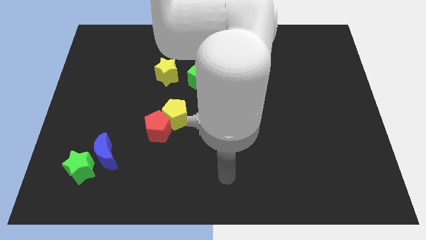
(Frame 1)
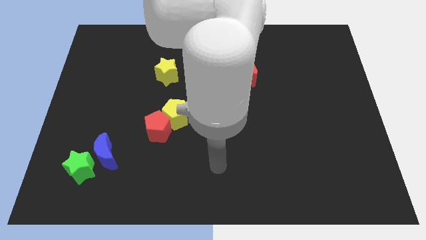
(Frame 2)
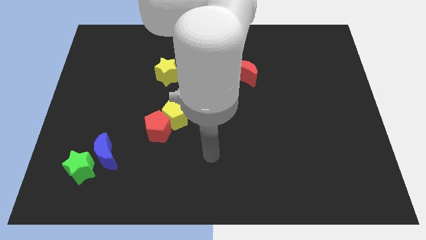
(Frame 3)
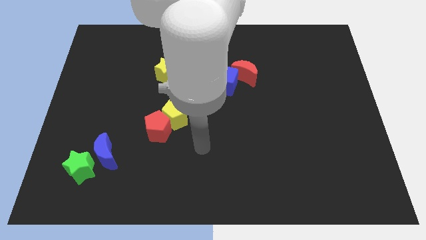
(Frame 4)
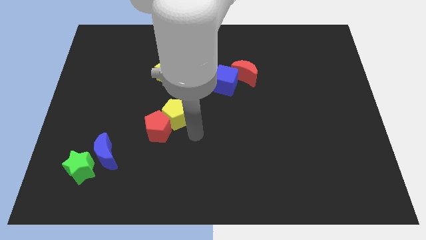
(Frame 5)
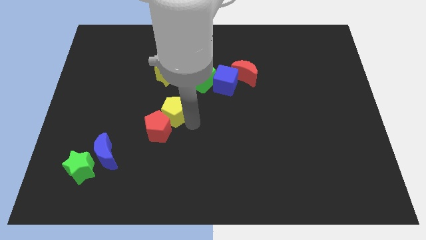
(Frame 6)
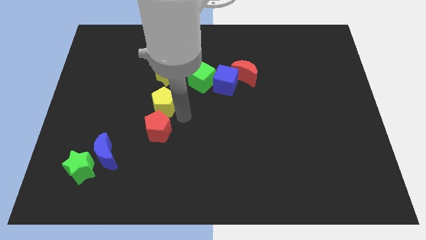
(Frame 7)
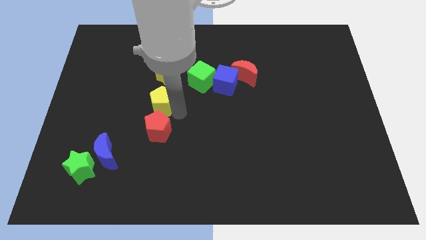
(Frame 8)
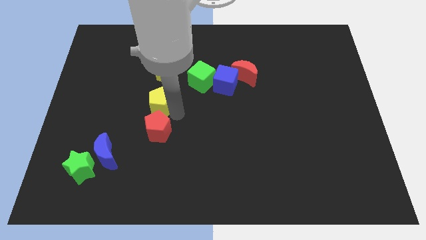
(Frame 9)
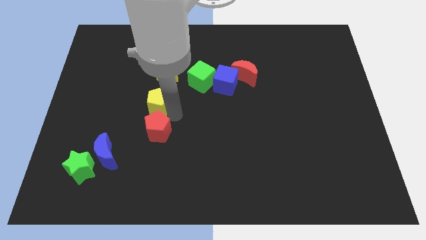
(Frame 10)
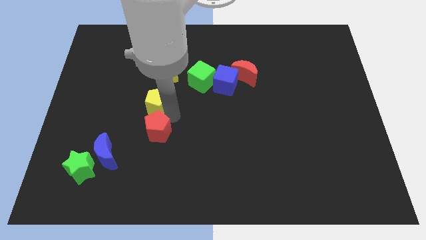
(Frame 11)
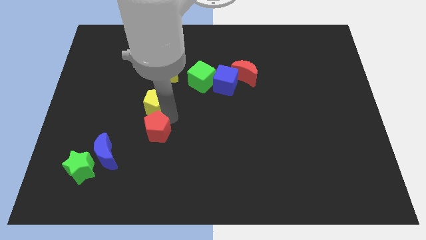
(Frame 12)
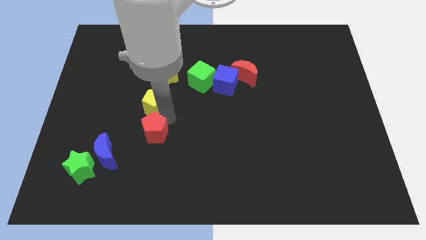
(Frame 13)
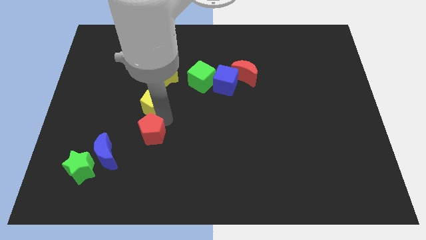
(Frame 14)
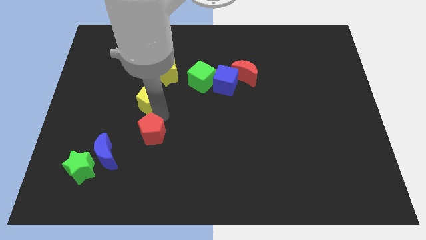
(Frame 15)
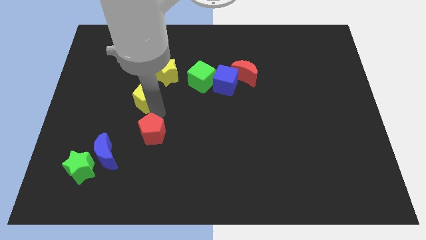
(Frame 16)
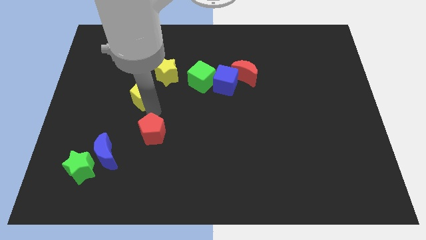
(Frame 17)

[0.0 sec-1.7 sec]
separate the red pentagon from the yellow pentagon

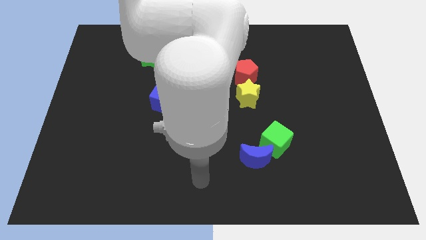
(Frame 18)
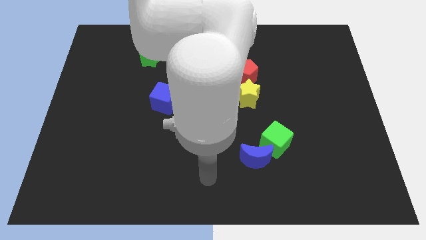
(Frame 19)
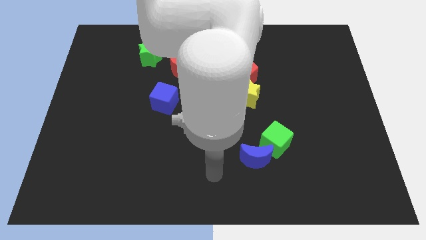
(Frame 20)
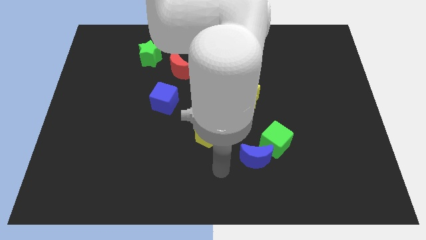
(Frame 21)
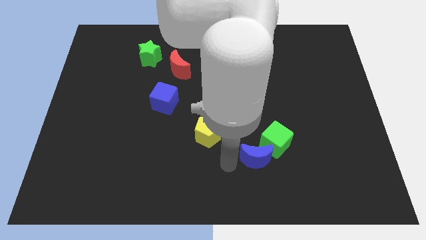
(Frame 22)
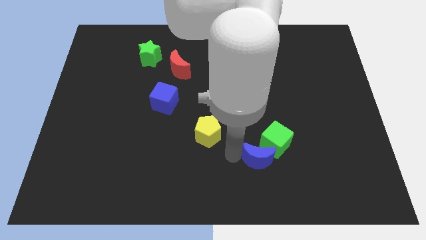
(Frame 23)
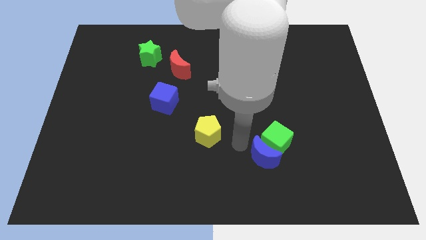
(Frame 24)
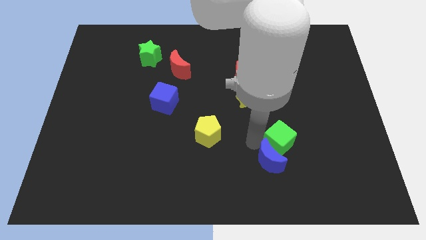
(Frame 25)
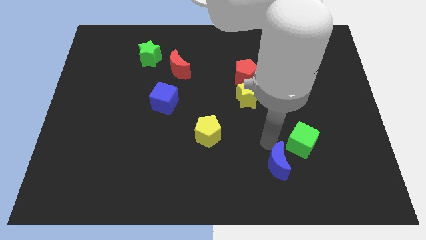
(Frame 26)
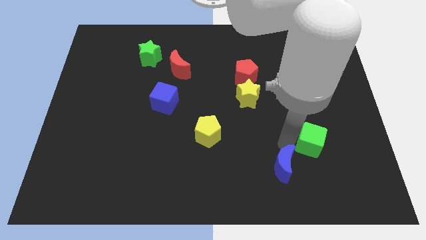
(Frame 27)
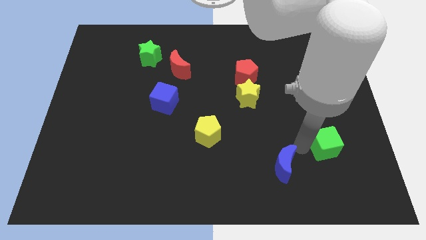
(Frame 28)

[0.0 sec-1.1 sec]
separate the blue moon from the green cube

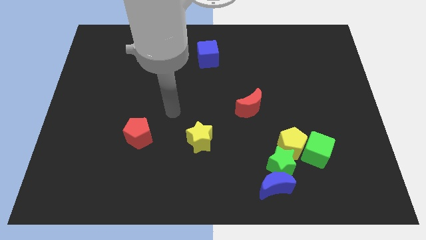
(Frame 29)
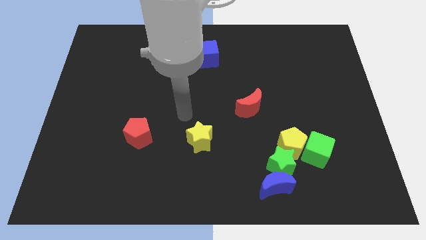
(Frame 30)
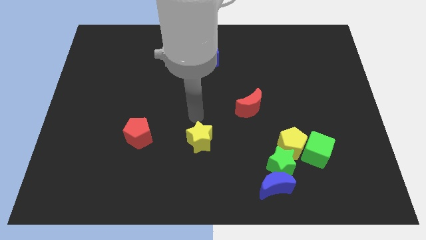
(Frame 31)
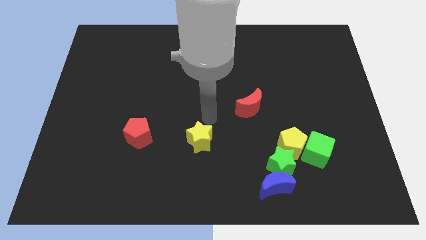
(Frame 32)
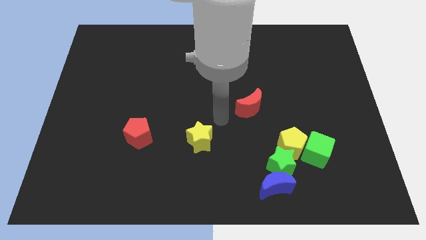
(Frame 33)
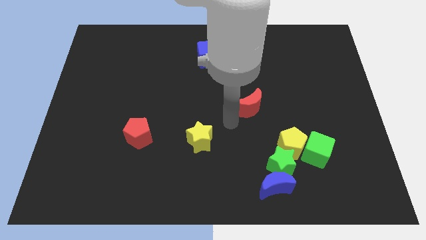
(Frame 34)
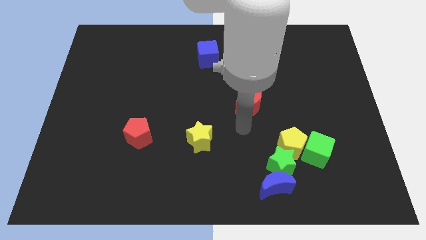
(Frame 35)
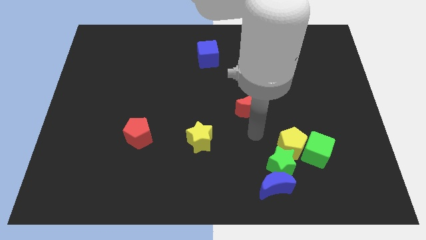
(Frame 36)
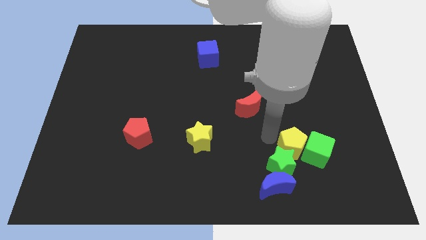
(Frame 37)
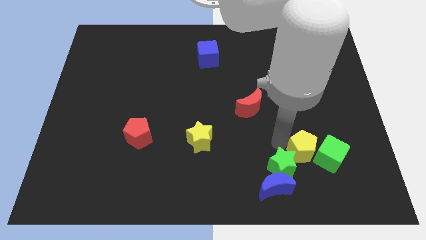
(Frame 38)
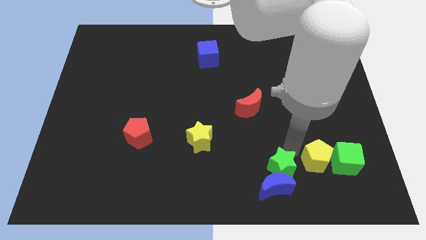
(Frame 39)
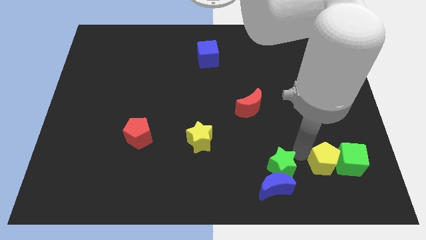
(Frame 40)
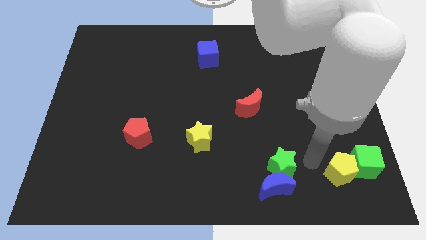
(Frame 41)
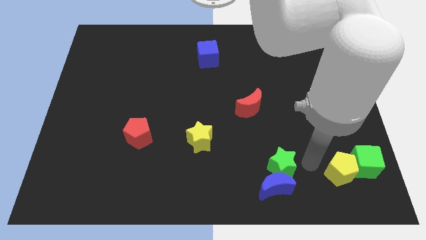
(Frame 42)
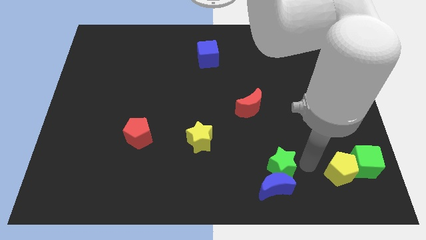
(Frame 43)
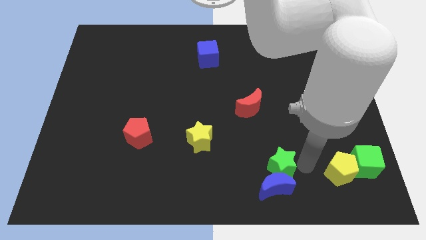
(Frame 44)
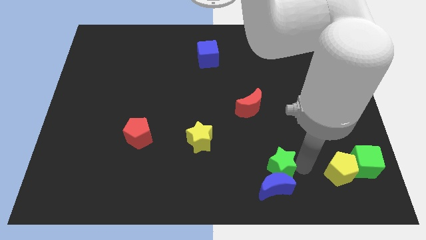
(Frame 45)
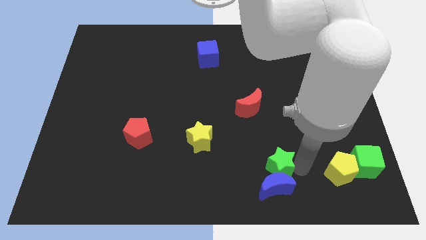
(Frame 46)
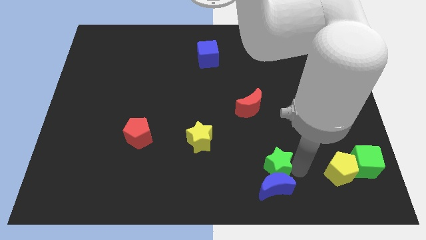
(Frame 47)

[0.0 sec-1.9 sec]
move the green star away from the blue moon, yellow pentagon, and green cube

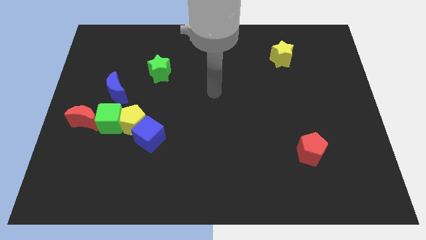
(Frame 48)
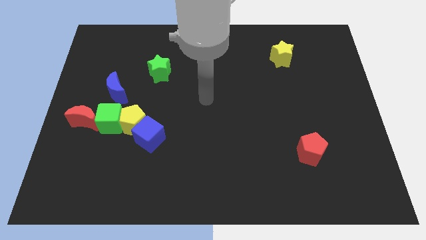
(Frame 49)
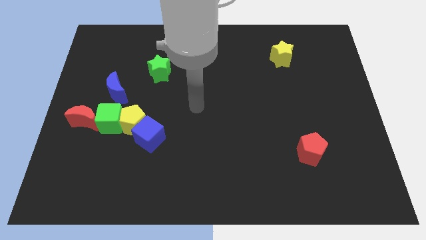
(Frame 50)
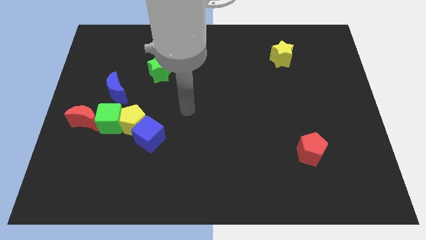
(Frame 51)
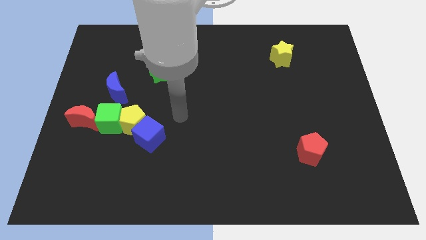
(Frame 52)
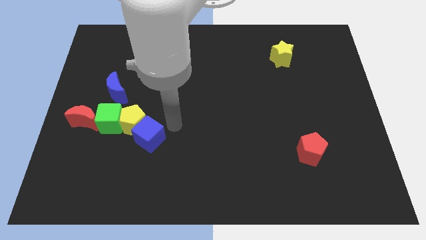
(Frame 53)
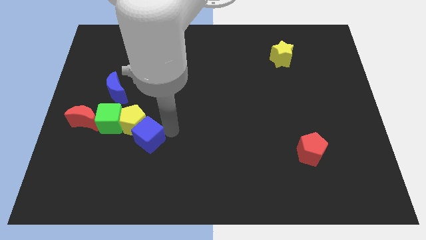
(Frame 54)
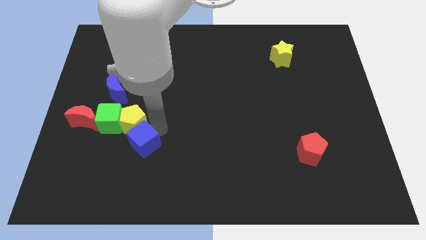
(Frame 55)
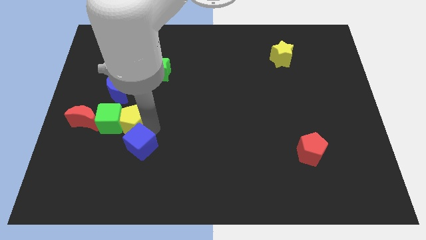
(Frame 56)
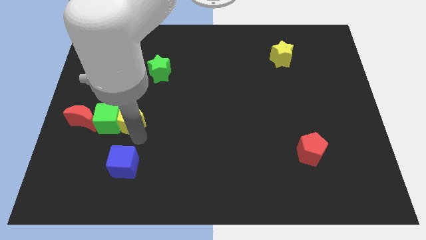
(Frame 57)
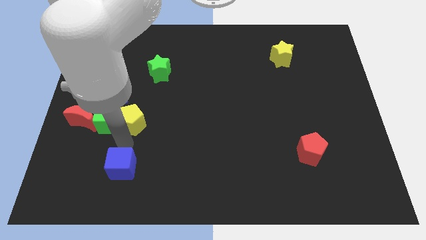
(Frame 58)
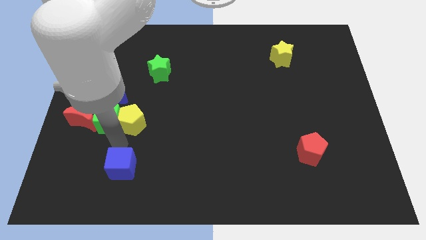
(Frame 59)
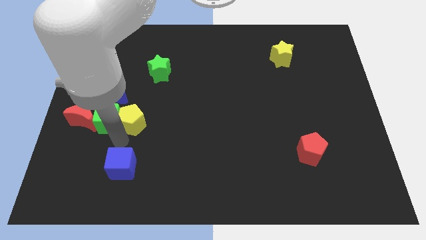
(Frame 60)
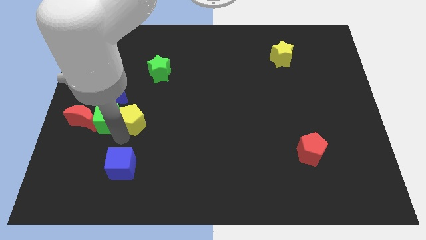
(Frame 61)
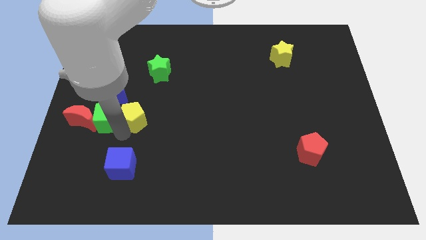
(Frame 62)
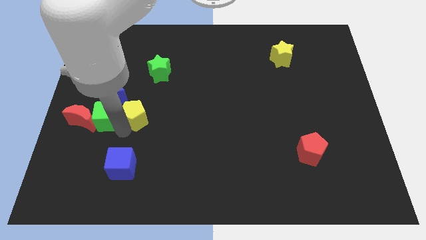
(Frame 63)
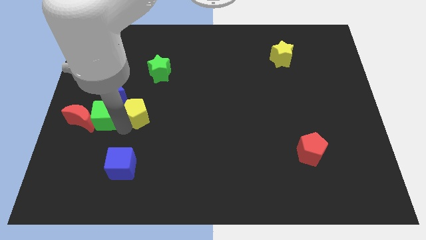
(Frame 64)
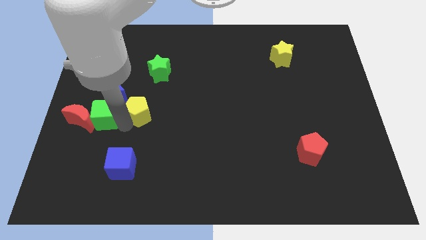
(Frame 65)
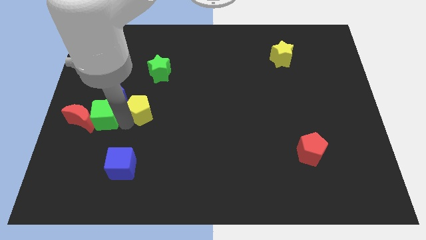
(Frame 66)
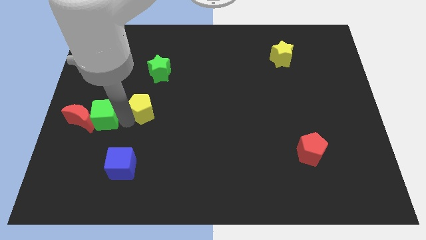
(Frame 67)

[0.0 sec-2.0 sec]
move the yellow pentagon away from the green cube and blue cube

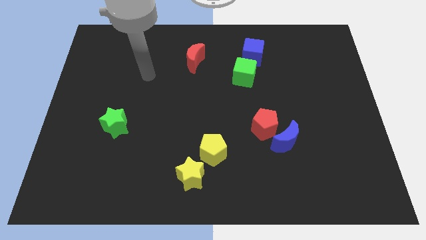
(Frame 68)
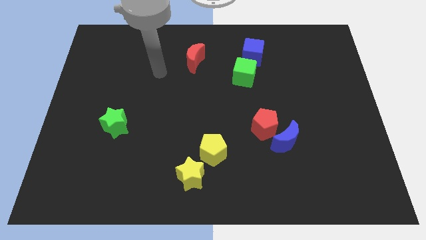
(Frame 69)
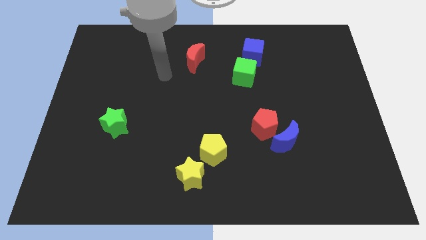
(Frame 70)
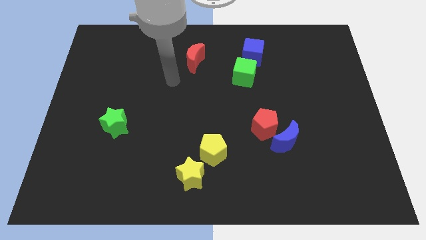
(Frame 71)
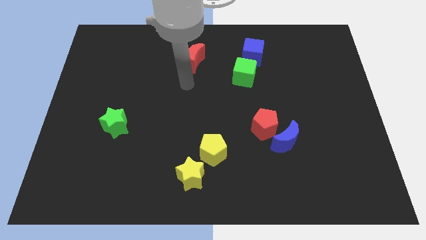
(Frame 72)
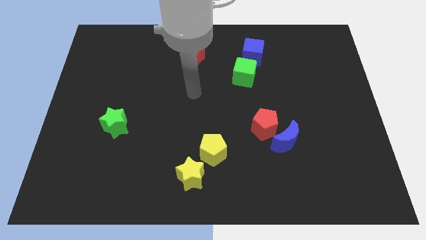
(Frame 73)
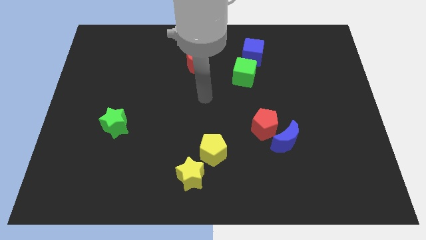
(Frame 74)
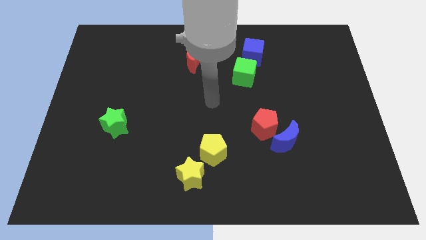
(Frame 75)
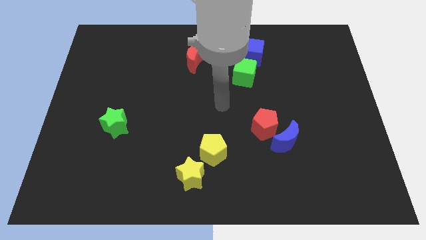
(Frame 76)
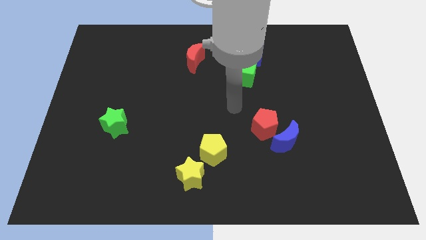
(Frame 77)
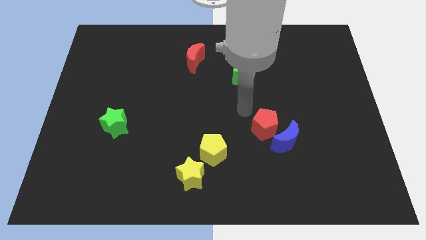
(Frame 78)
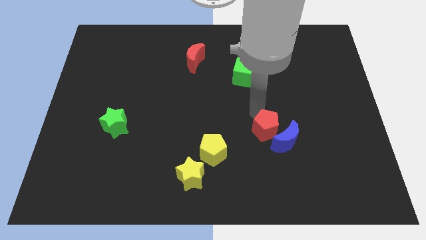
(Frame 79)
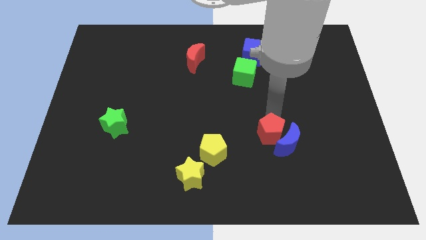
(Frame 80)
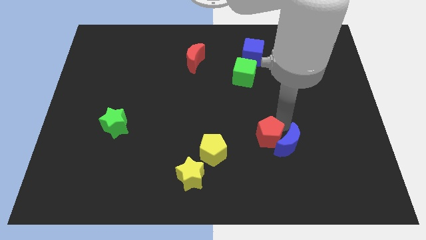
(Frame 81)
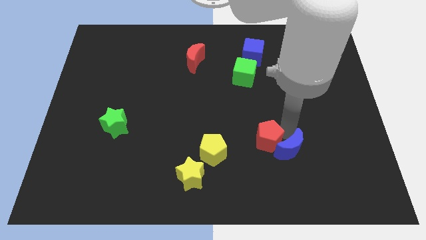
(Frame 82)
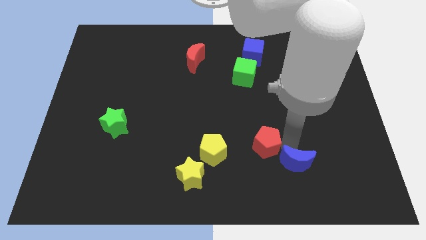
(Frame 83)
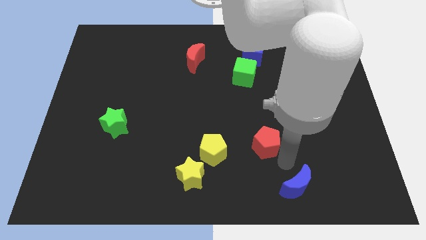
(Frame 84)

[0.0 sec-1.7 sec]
pull the red pentagon apart from the blue moon

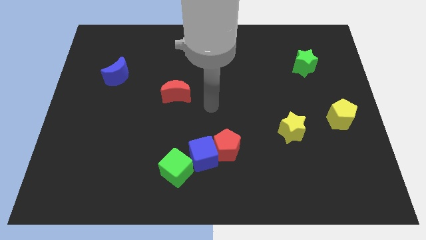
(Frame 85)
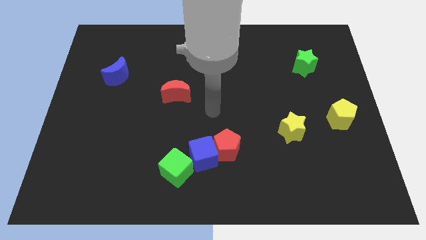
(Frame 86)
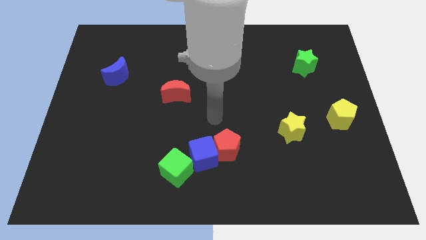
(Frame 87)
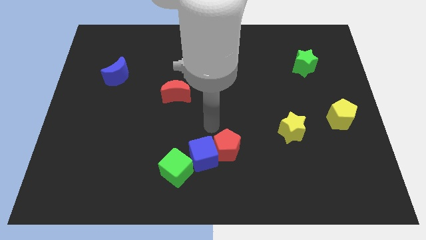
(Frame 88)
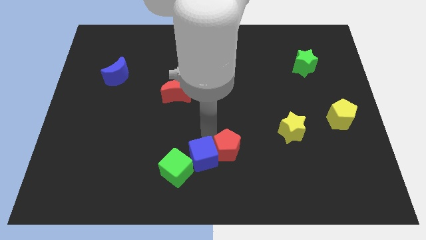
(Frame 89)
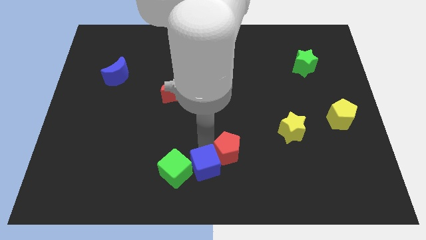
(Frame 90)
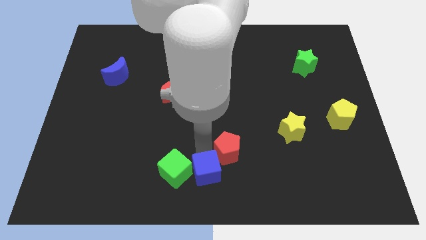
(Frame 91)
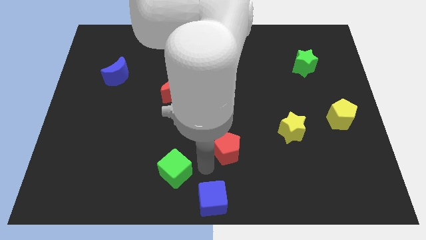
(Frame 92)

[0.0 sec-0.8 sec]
move the red pentagon away from the blue cube
